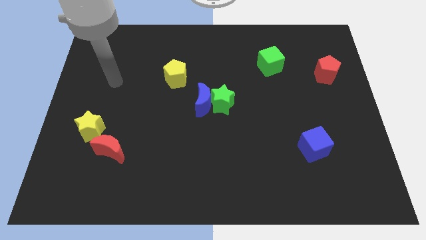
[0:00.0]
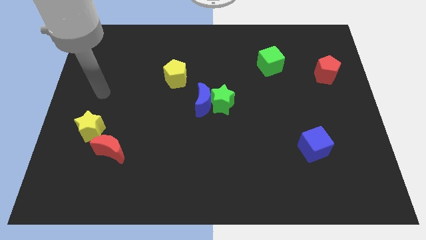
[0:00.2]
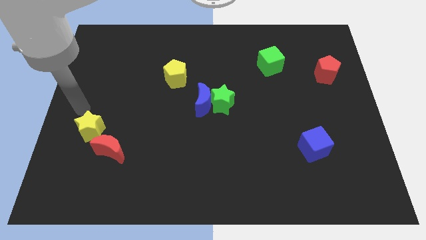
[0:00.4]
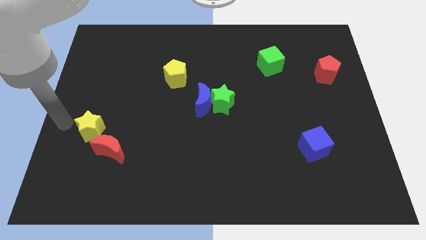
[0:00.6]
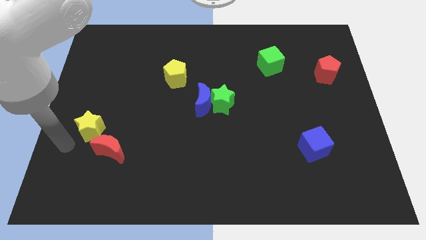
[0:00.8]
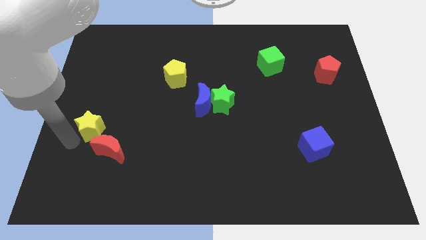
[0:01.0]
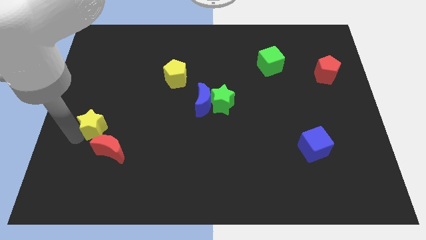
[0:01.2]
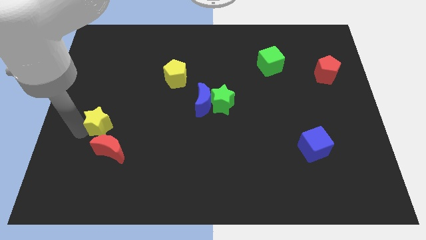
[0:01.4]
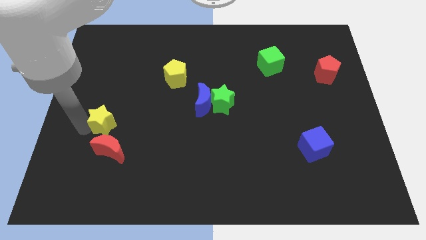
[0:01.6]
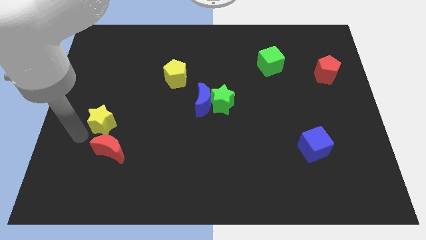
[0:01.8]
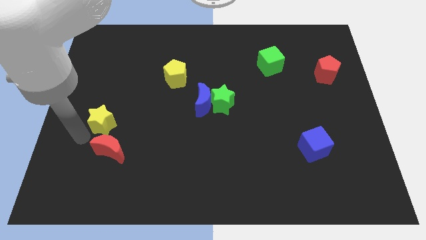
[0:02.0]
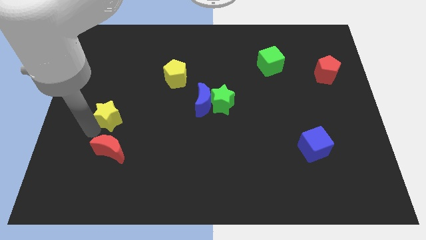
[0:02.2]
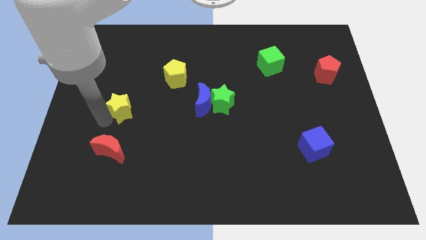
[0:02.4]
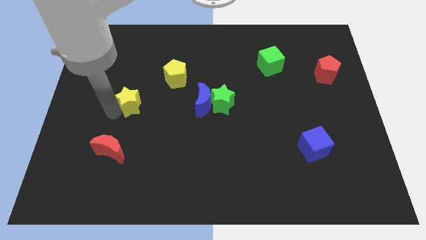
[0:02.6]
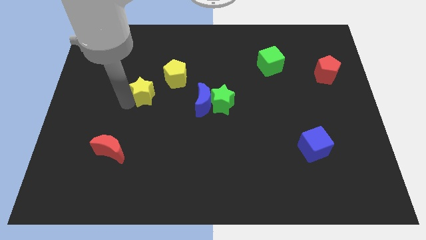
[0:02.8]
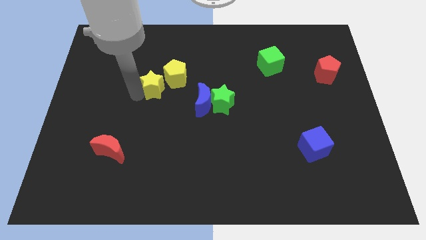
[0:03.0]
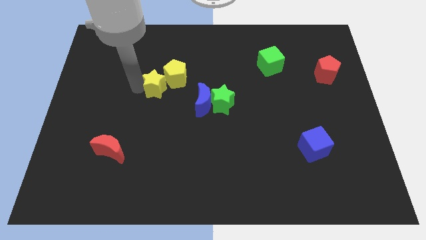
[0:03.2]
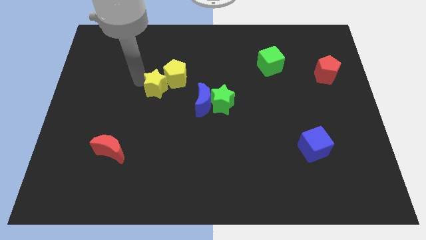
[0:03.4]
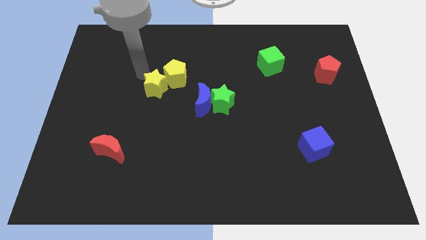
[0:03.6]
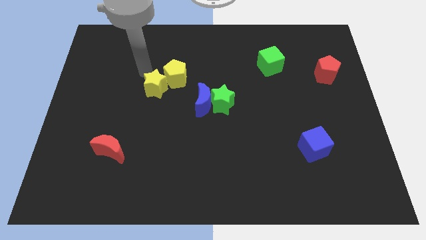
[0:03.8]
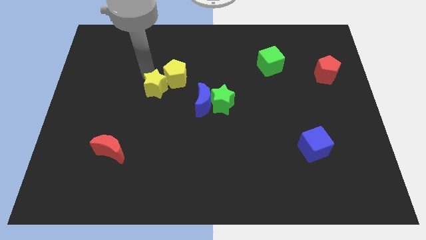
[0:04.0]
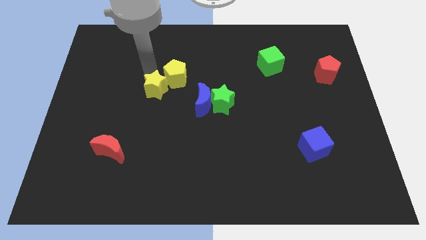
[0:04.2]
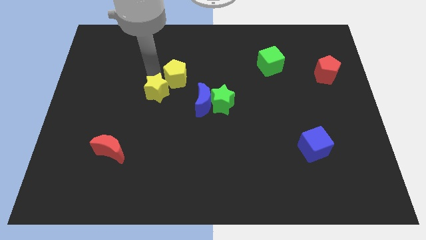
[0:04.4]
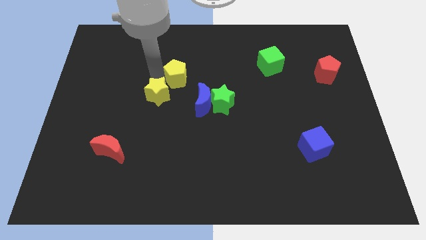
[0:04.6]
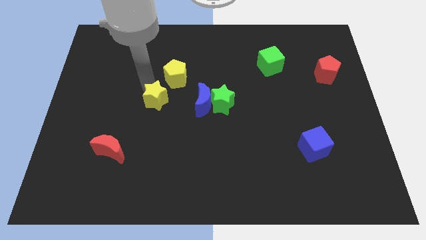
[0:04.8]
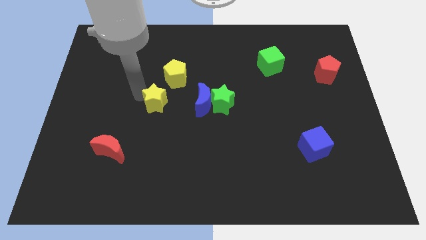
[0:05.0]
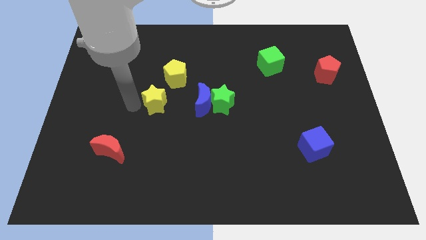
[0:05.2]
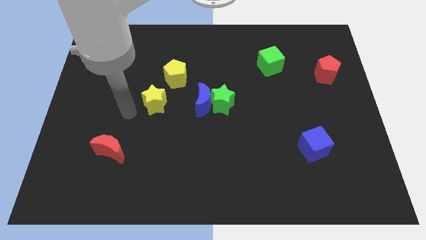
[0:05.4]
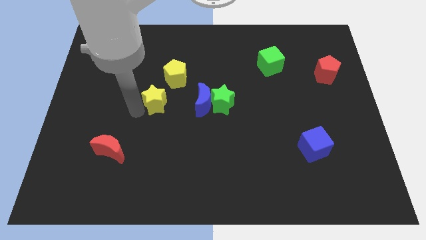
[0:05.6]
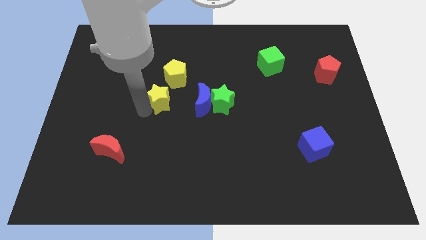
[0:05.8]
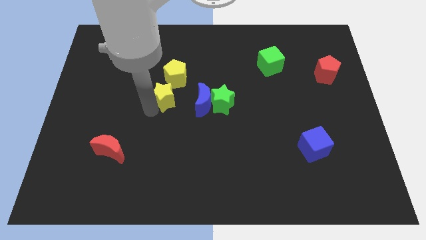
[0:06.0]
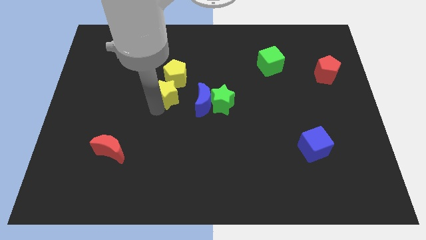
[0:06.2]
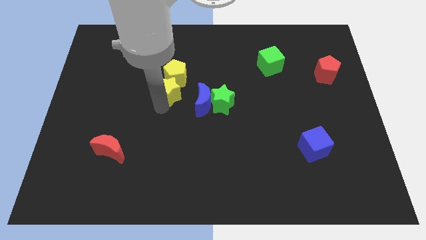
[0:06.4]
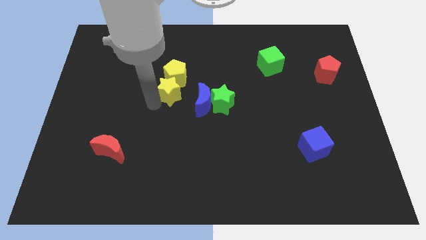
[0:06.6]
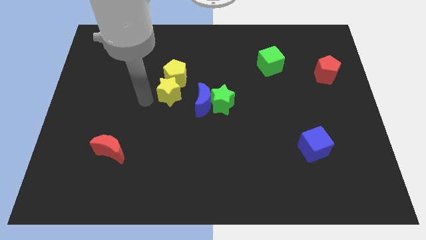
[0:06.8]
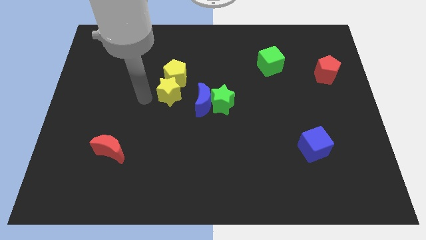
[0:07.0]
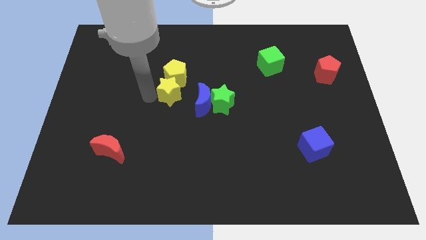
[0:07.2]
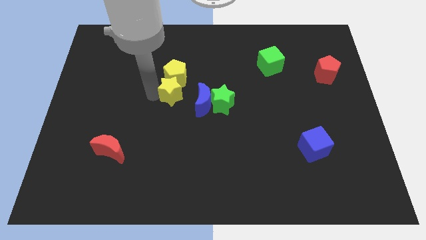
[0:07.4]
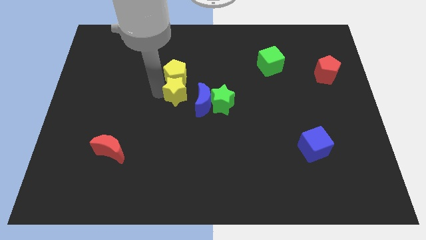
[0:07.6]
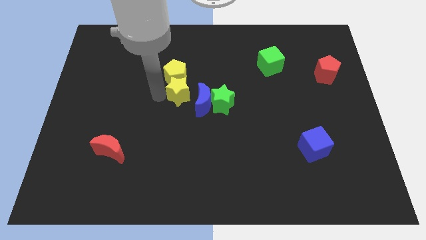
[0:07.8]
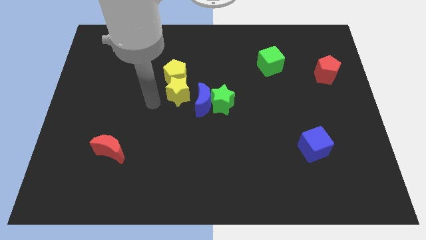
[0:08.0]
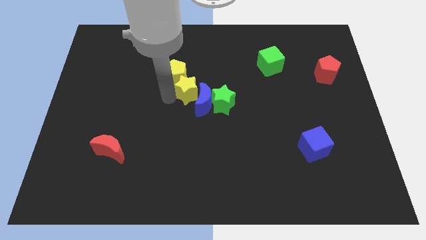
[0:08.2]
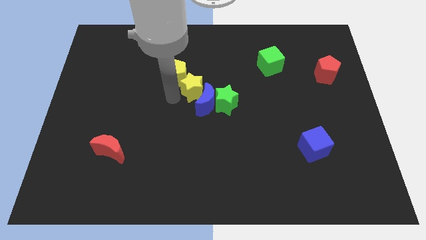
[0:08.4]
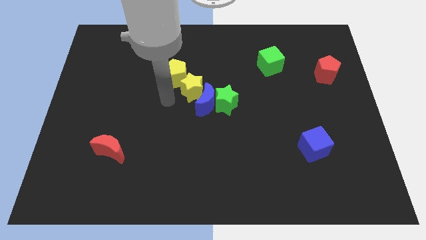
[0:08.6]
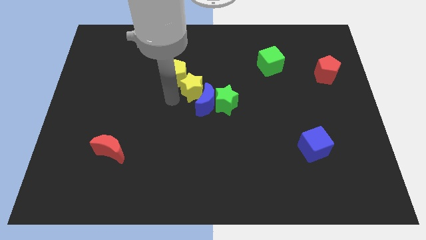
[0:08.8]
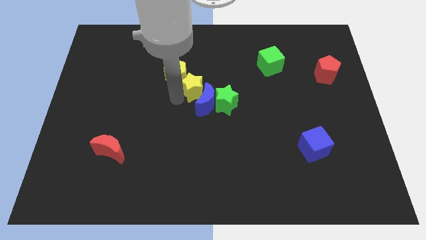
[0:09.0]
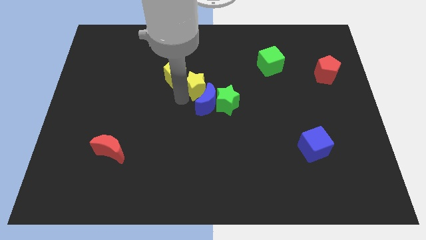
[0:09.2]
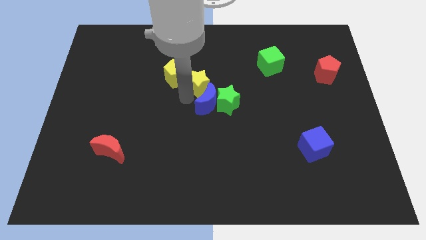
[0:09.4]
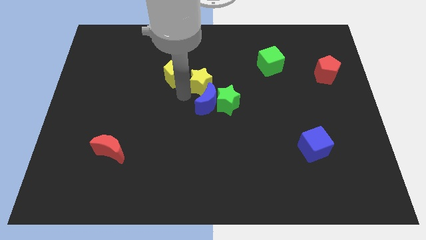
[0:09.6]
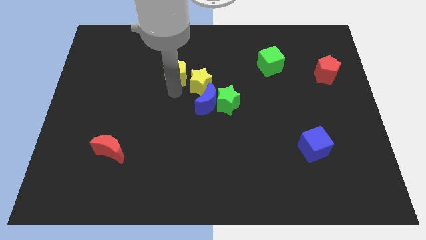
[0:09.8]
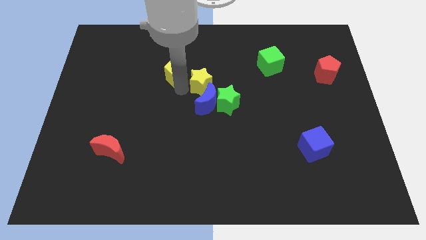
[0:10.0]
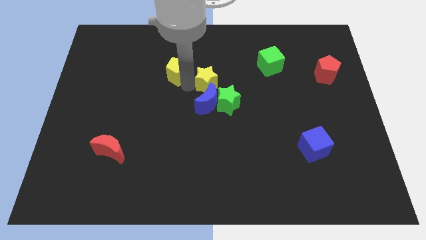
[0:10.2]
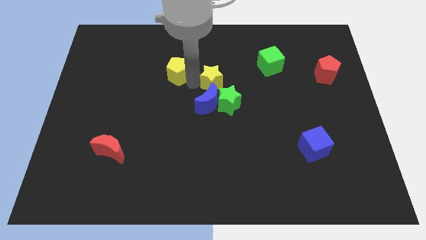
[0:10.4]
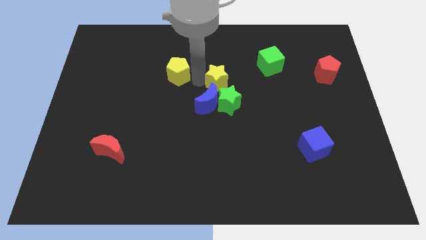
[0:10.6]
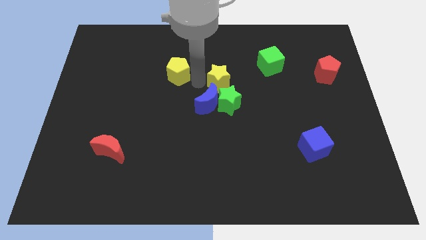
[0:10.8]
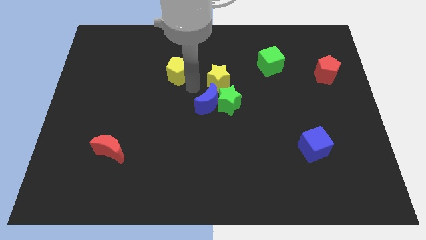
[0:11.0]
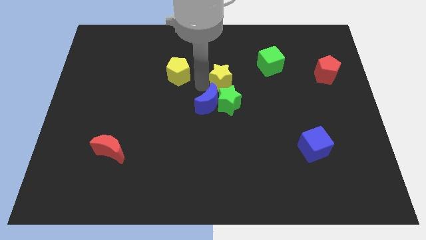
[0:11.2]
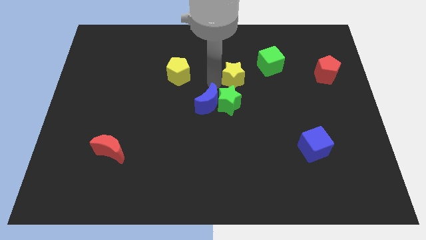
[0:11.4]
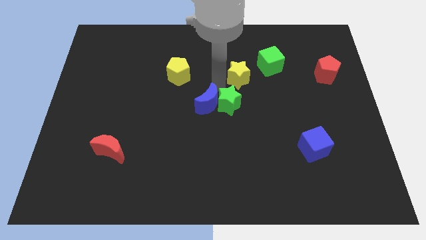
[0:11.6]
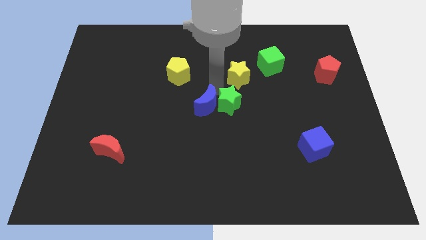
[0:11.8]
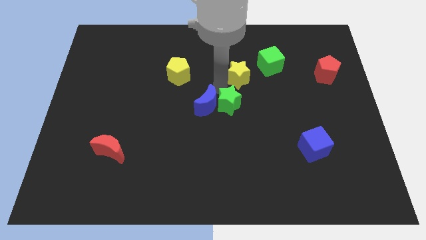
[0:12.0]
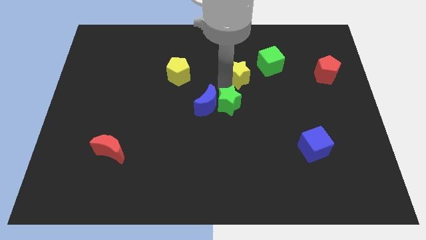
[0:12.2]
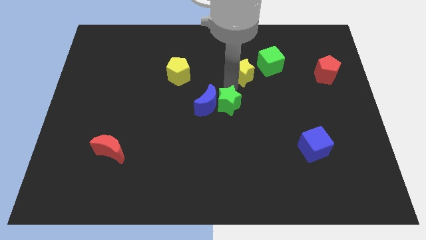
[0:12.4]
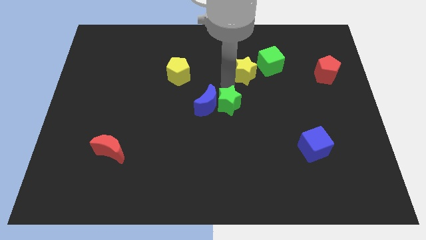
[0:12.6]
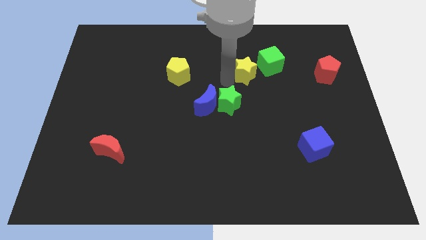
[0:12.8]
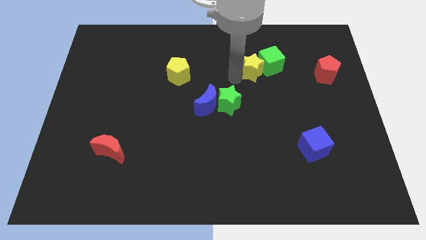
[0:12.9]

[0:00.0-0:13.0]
move the yellow star towards the green cube

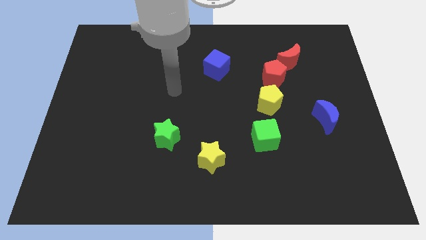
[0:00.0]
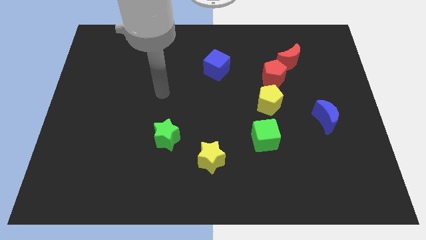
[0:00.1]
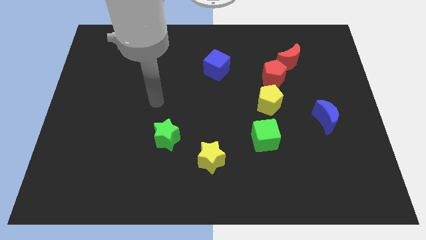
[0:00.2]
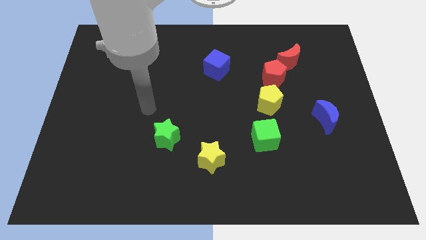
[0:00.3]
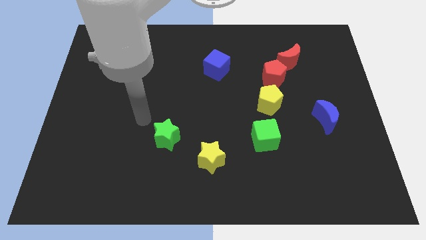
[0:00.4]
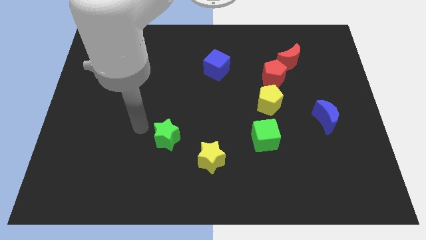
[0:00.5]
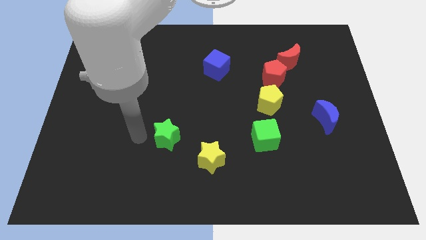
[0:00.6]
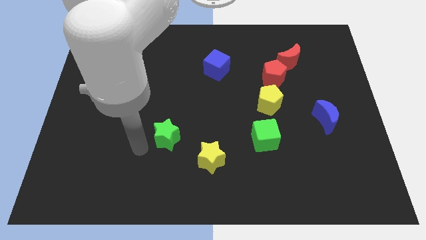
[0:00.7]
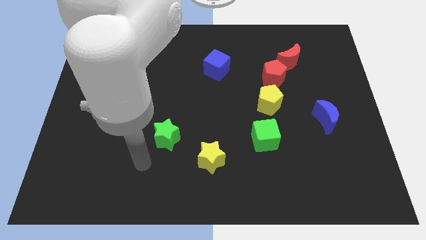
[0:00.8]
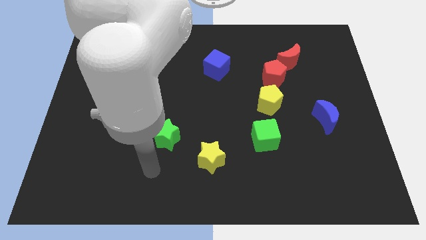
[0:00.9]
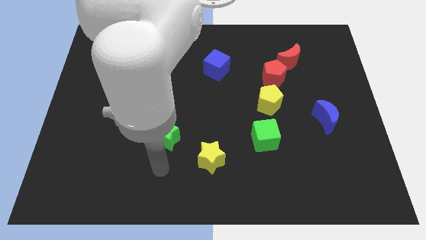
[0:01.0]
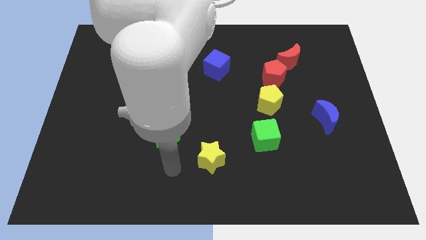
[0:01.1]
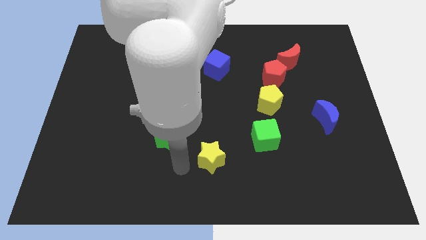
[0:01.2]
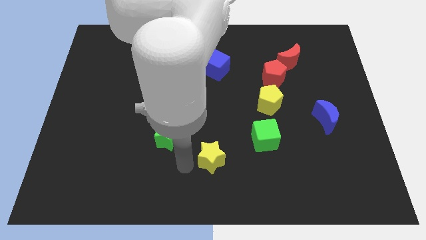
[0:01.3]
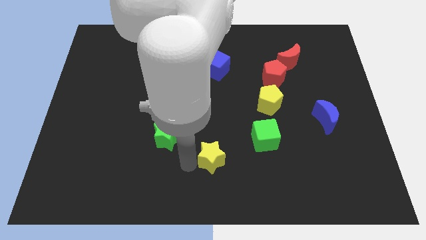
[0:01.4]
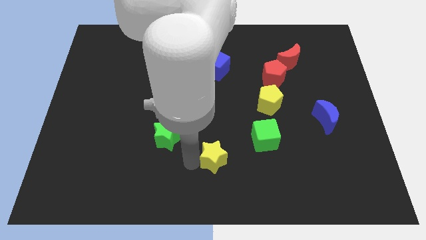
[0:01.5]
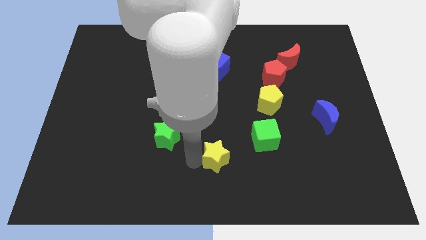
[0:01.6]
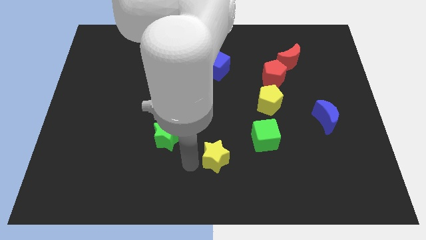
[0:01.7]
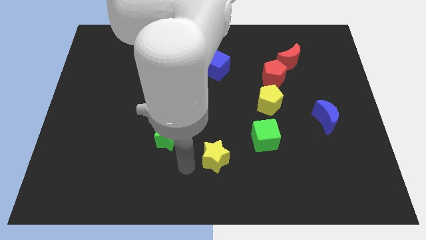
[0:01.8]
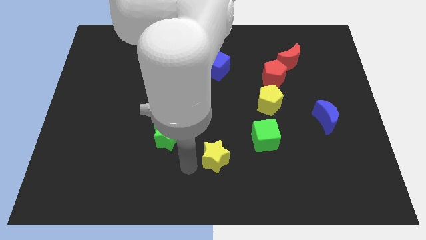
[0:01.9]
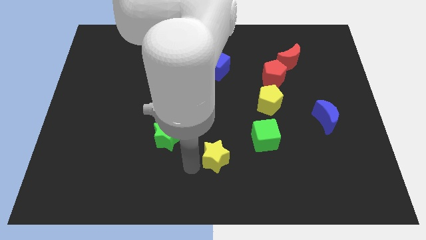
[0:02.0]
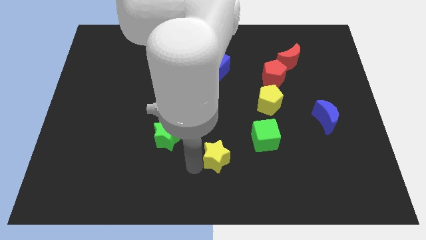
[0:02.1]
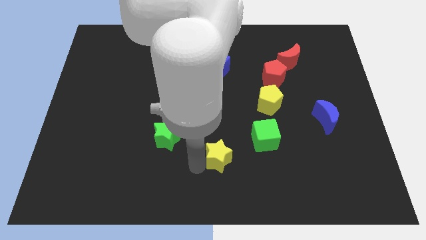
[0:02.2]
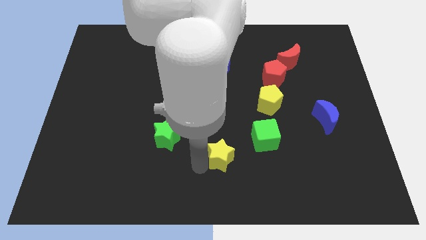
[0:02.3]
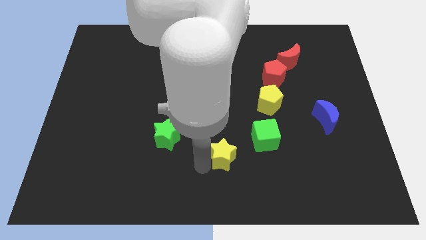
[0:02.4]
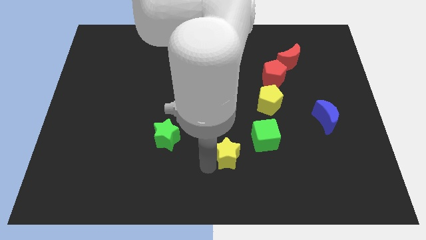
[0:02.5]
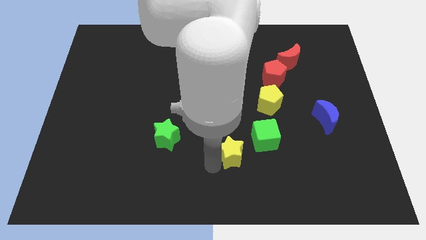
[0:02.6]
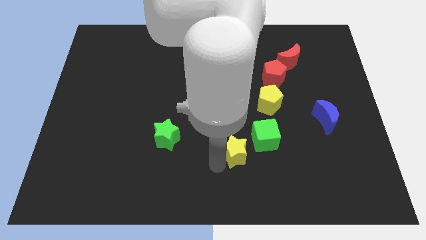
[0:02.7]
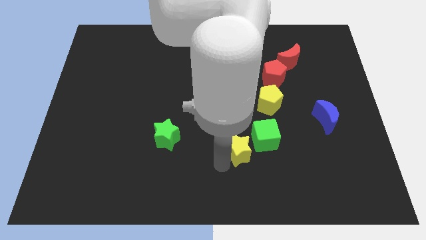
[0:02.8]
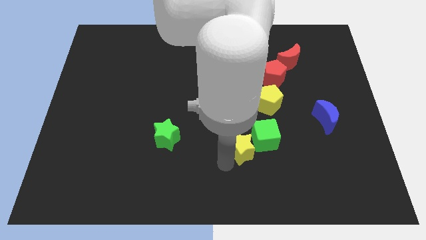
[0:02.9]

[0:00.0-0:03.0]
push the yellow star close to the green cube
